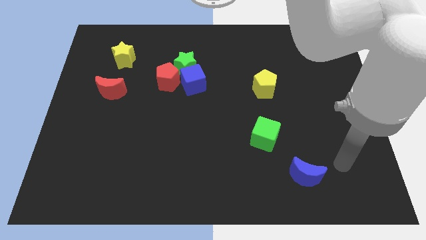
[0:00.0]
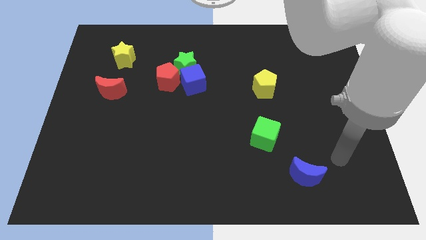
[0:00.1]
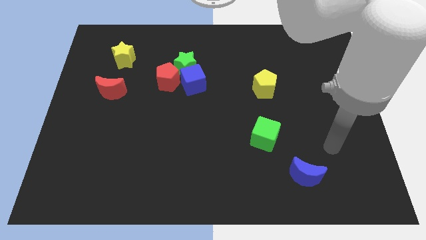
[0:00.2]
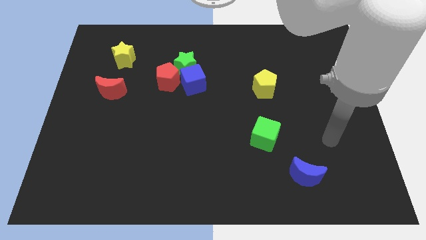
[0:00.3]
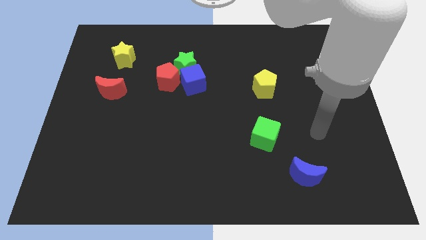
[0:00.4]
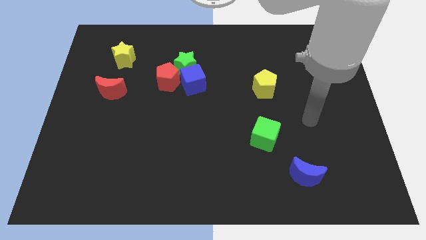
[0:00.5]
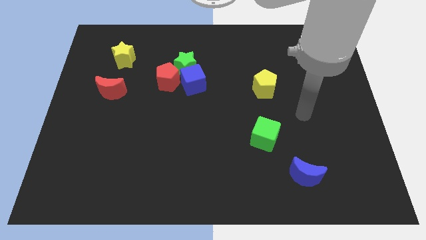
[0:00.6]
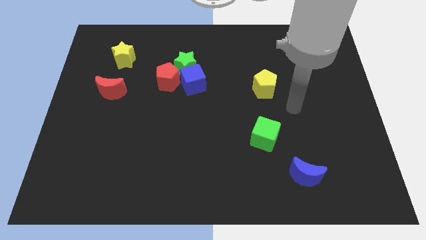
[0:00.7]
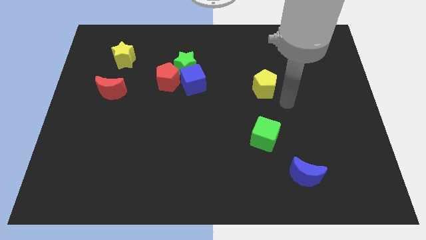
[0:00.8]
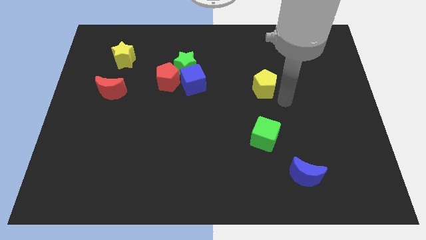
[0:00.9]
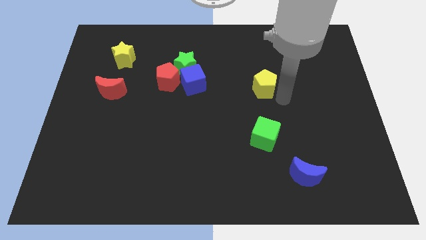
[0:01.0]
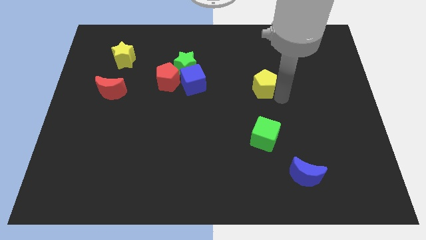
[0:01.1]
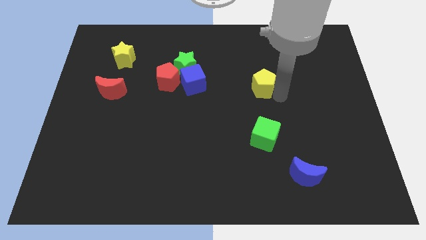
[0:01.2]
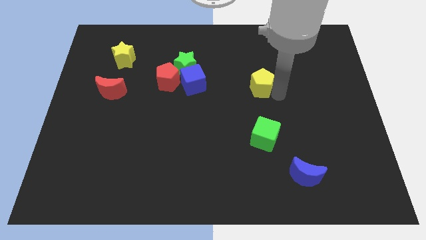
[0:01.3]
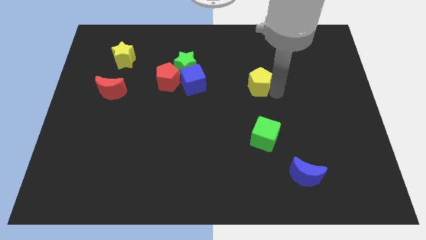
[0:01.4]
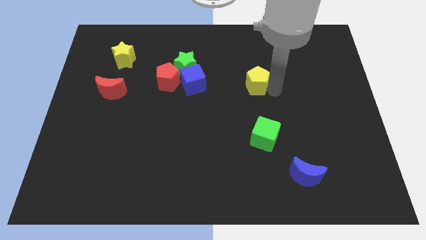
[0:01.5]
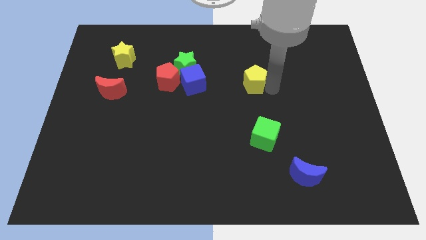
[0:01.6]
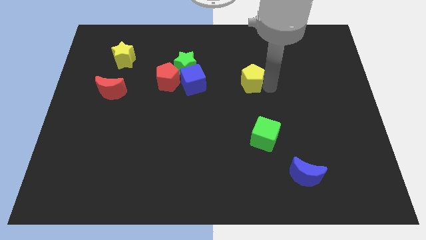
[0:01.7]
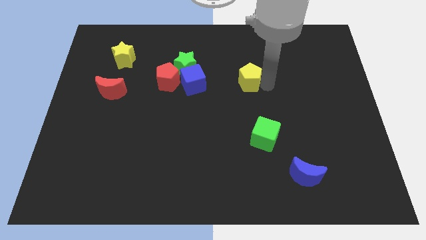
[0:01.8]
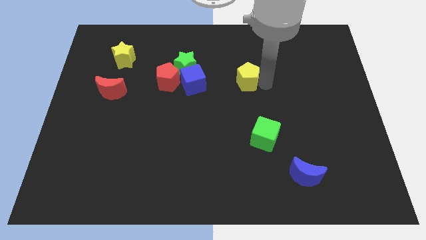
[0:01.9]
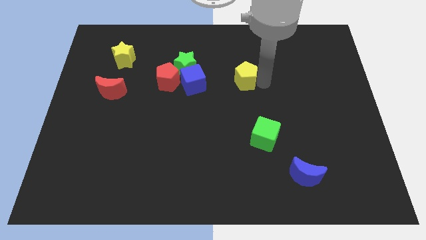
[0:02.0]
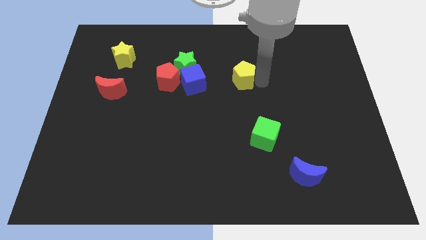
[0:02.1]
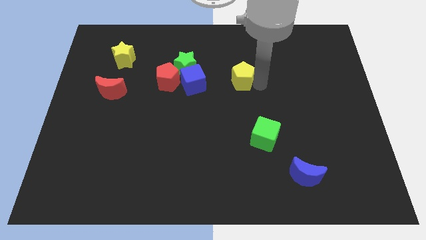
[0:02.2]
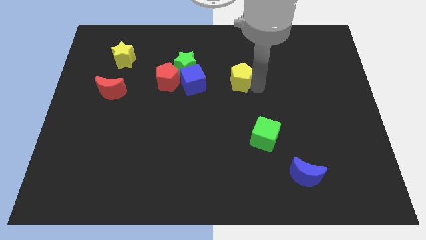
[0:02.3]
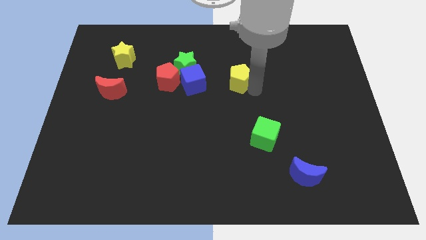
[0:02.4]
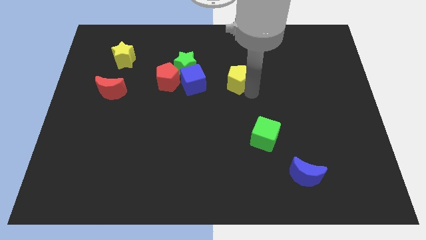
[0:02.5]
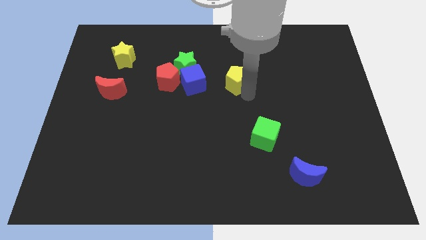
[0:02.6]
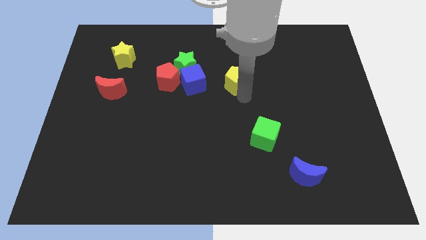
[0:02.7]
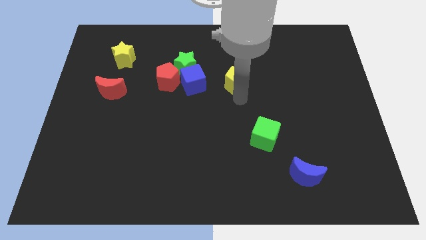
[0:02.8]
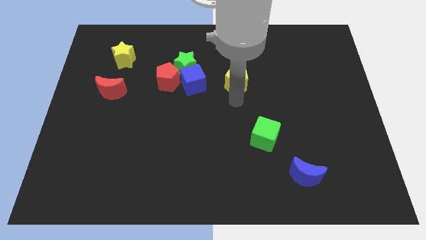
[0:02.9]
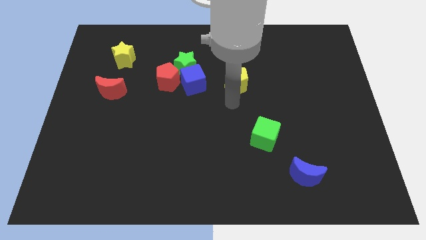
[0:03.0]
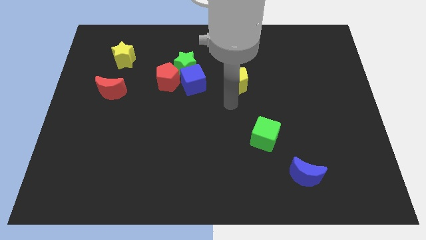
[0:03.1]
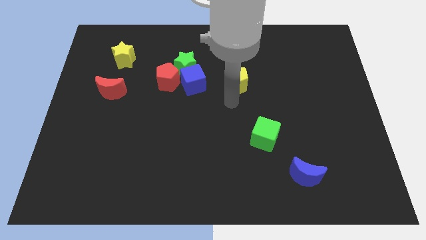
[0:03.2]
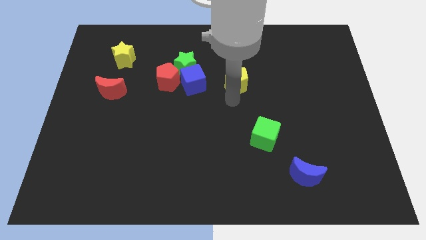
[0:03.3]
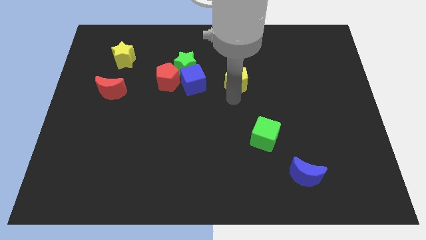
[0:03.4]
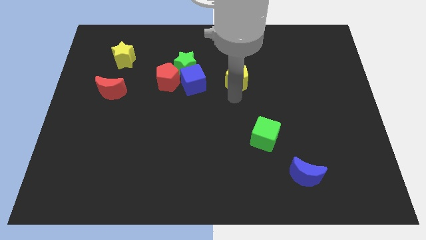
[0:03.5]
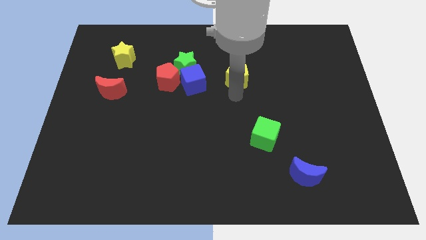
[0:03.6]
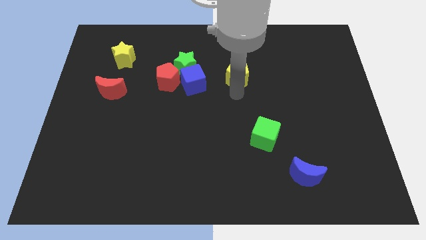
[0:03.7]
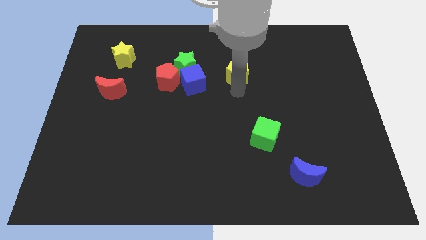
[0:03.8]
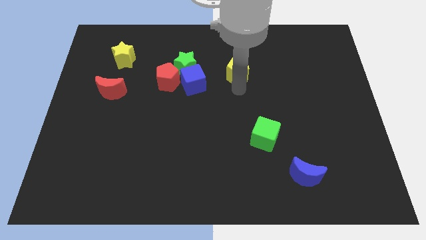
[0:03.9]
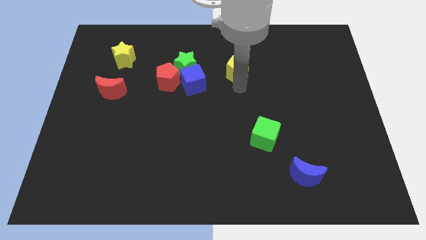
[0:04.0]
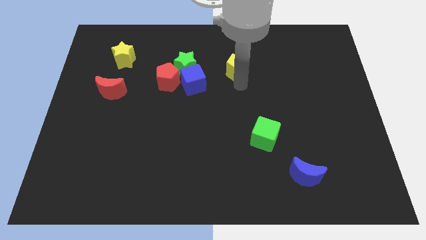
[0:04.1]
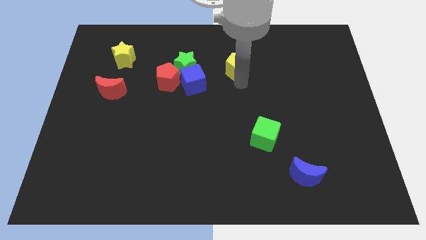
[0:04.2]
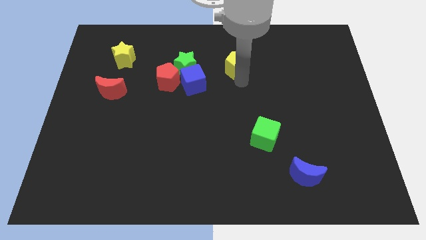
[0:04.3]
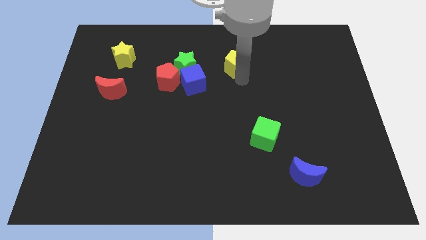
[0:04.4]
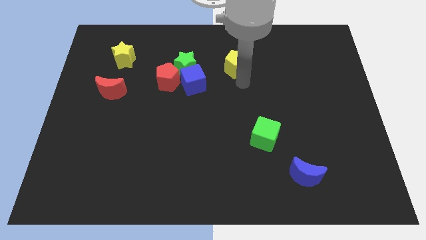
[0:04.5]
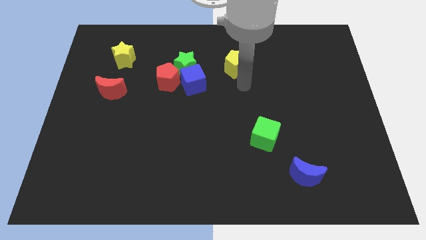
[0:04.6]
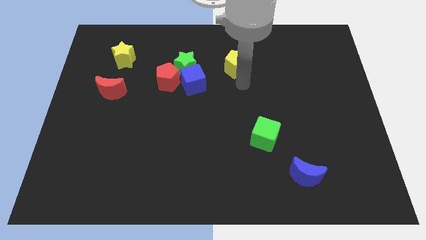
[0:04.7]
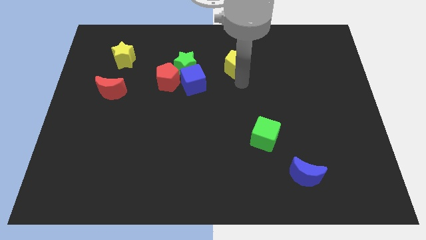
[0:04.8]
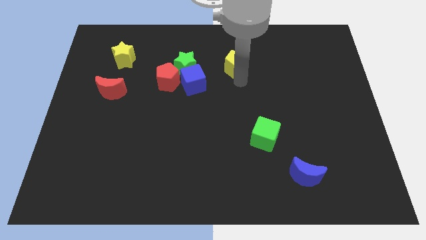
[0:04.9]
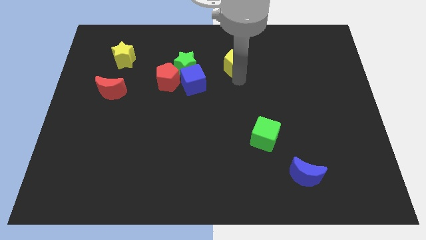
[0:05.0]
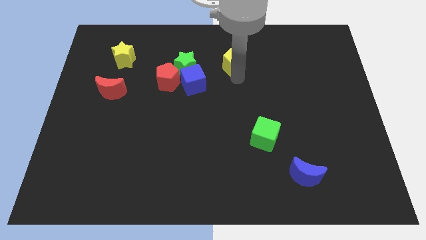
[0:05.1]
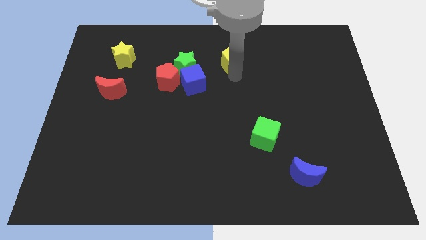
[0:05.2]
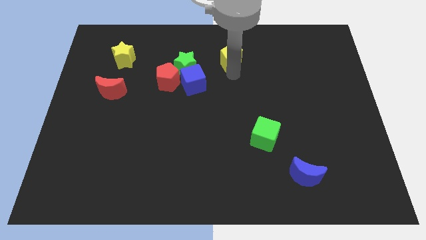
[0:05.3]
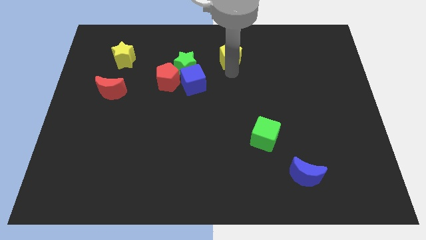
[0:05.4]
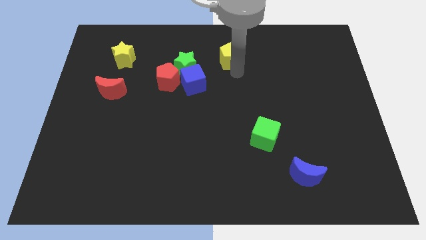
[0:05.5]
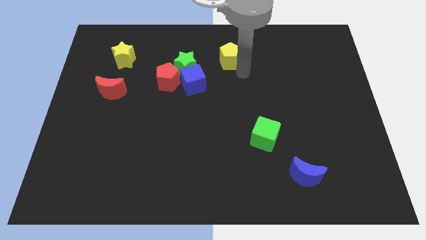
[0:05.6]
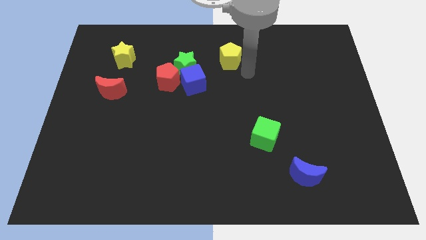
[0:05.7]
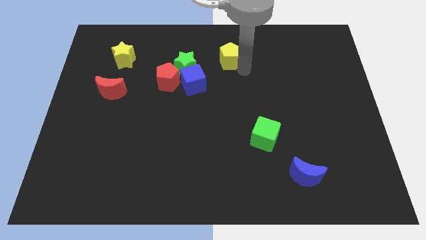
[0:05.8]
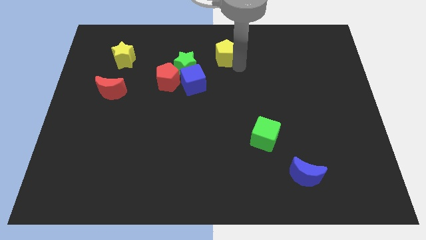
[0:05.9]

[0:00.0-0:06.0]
push the yellow pentagon to the top
